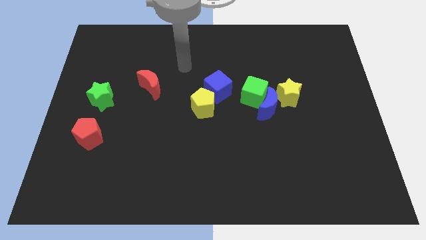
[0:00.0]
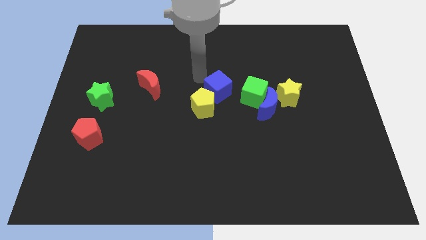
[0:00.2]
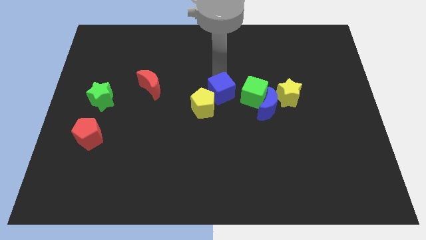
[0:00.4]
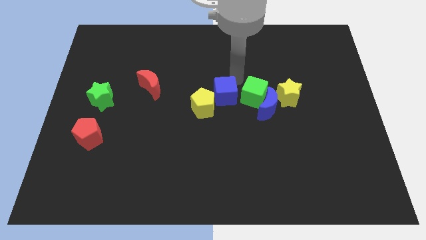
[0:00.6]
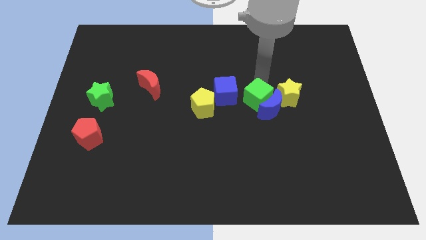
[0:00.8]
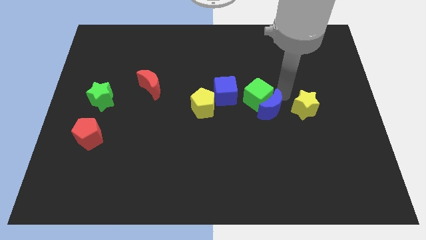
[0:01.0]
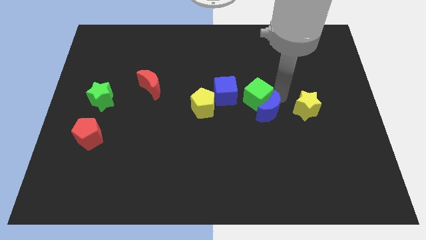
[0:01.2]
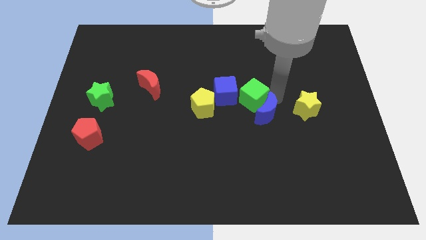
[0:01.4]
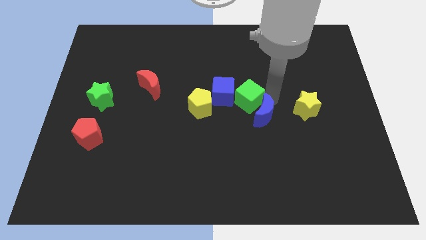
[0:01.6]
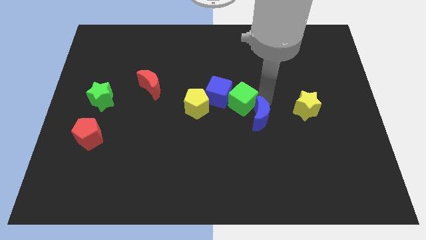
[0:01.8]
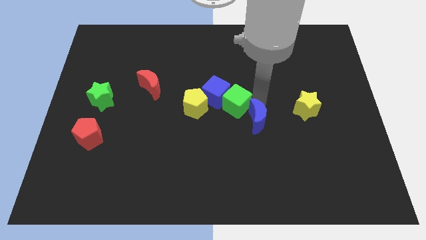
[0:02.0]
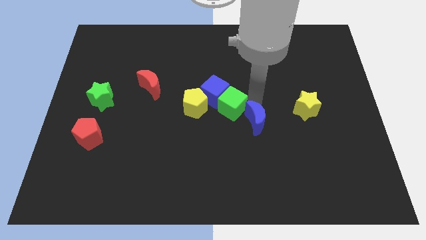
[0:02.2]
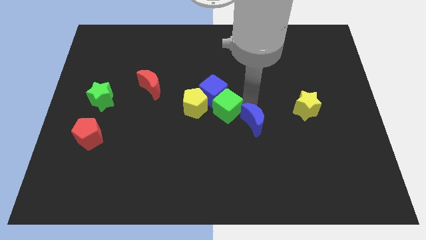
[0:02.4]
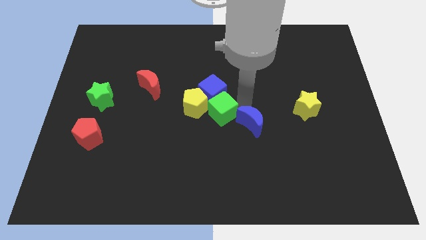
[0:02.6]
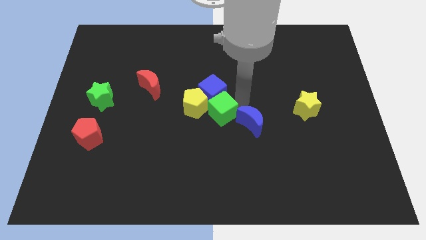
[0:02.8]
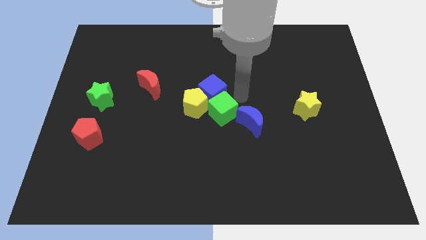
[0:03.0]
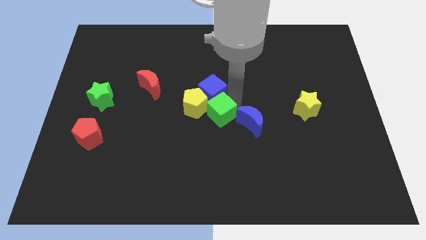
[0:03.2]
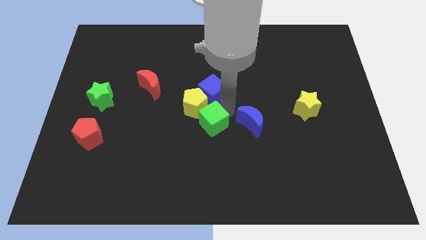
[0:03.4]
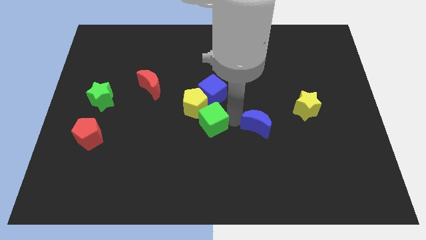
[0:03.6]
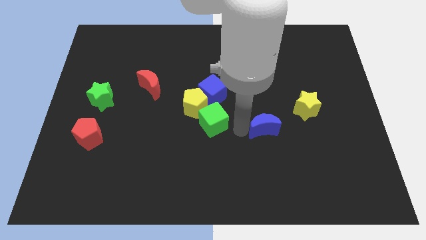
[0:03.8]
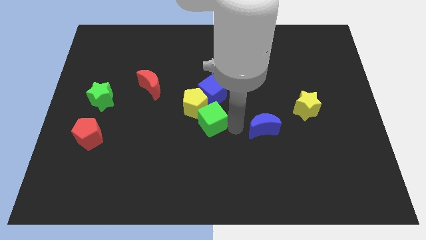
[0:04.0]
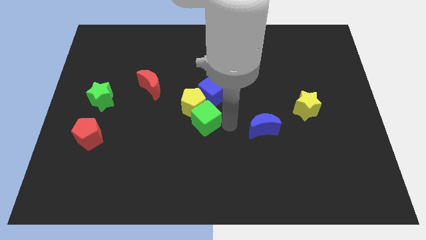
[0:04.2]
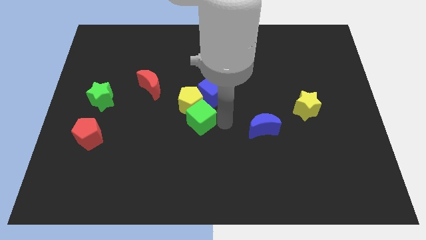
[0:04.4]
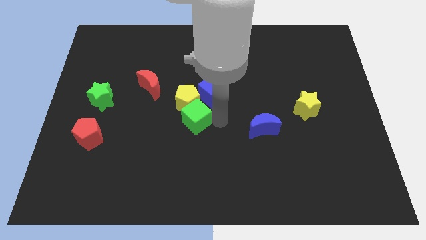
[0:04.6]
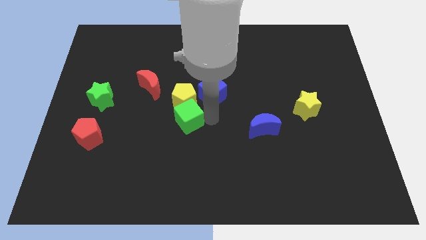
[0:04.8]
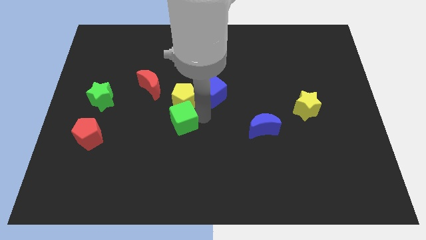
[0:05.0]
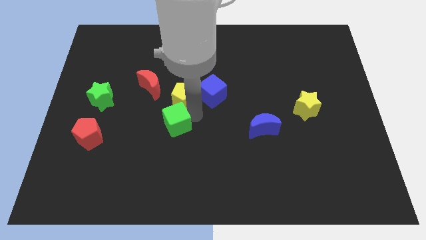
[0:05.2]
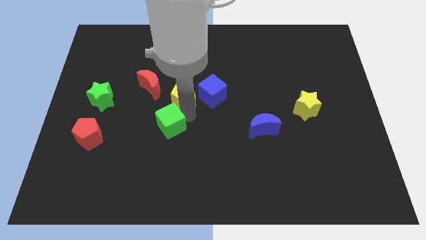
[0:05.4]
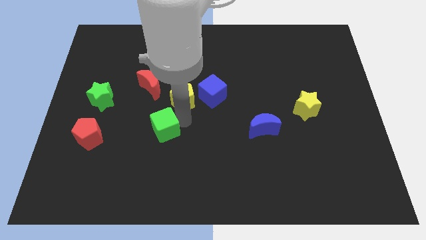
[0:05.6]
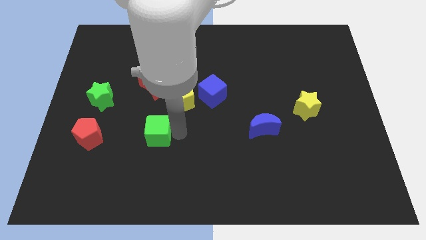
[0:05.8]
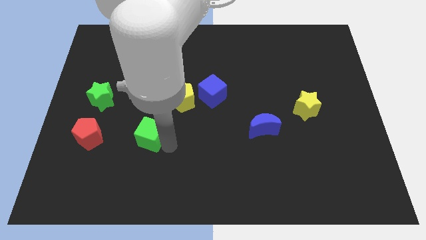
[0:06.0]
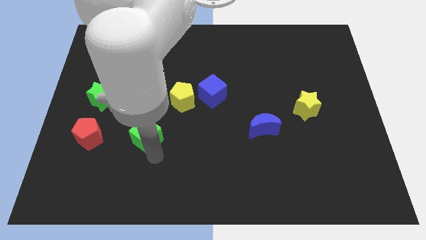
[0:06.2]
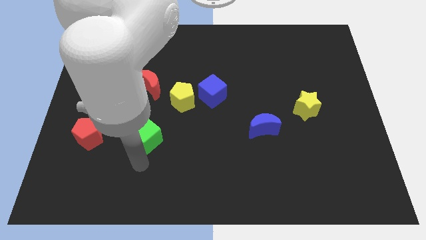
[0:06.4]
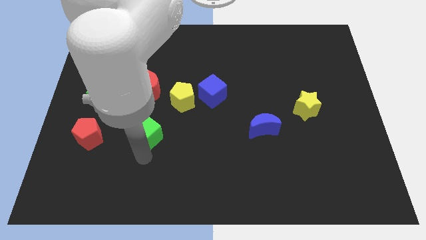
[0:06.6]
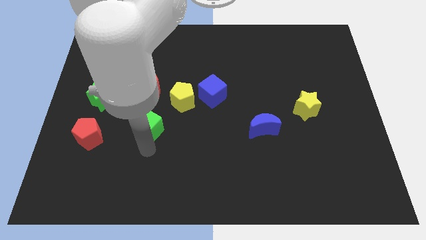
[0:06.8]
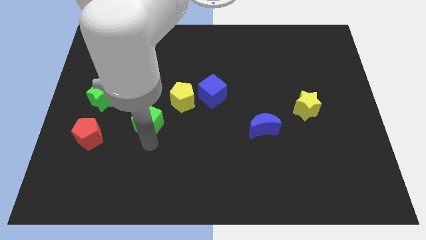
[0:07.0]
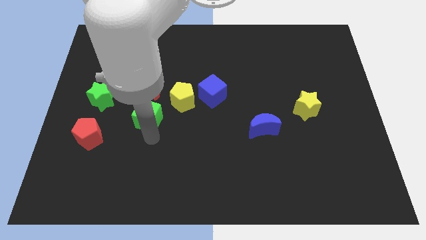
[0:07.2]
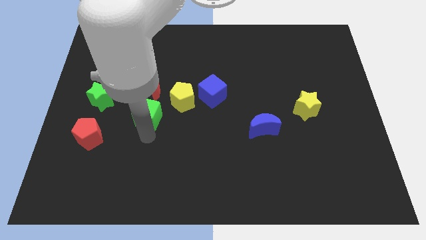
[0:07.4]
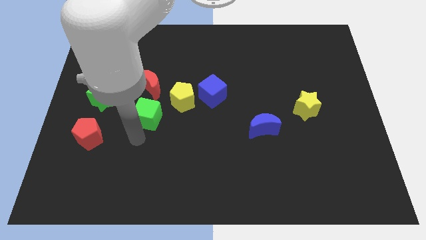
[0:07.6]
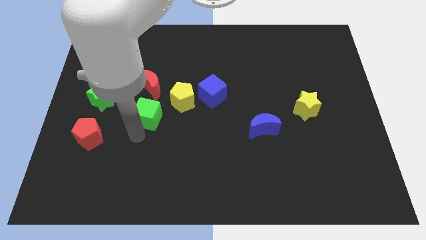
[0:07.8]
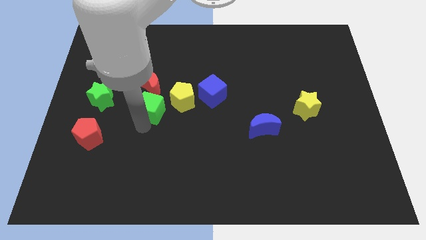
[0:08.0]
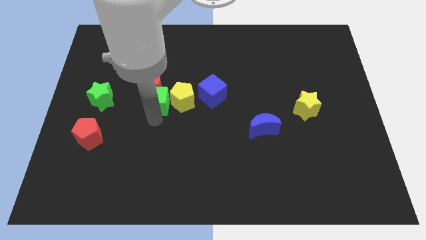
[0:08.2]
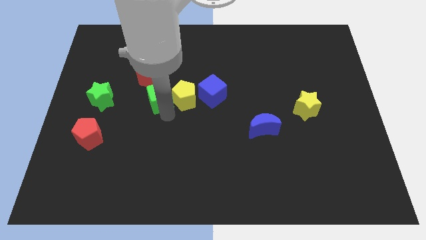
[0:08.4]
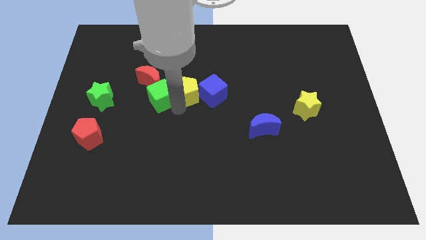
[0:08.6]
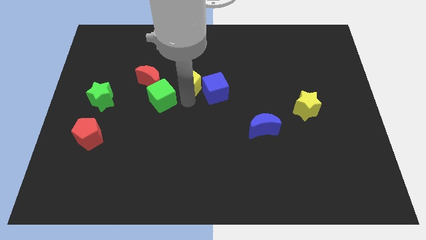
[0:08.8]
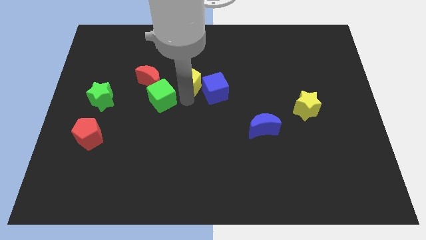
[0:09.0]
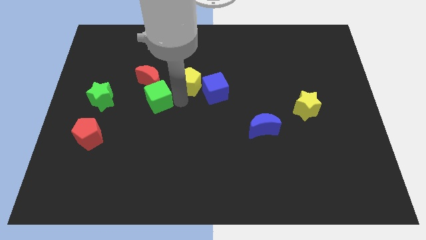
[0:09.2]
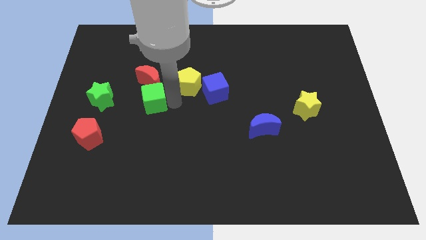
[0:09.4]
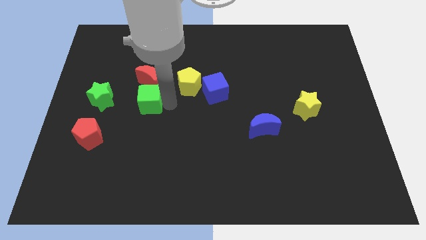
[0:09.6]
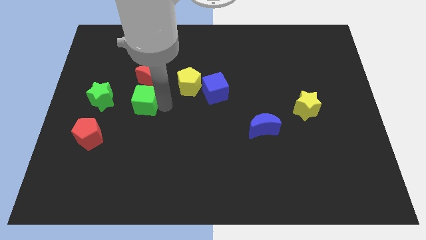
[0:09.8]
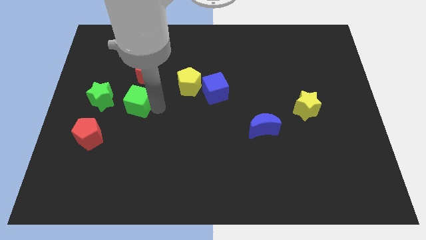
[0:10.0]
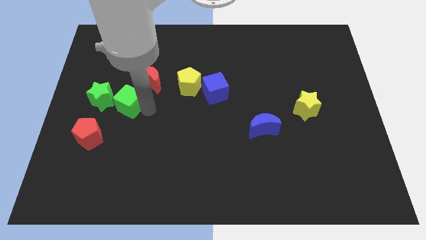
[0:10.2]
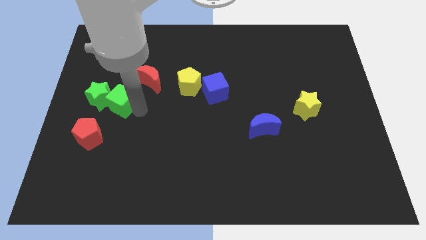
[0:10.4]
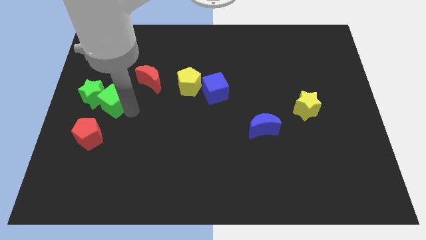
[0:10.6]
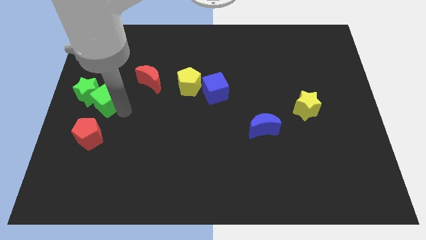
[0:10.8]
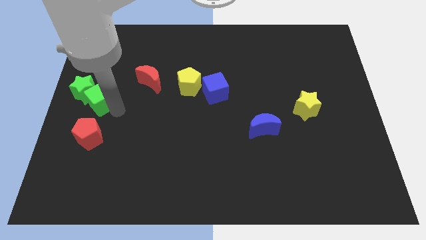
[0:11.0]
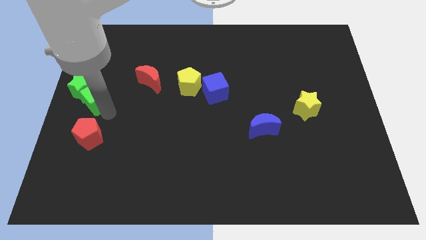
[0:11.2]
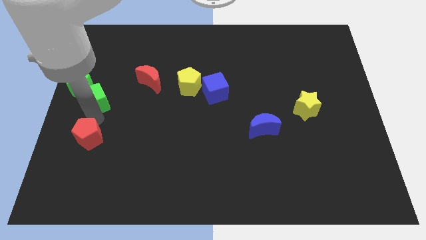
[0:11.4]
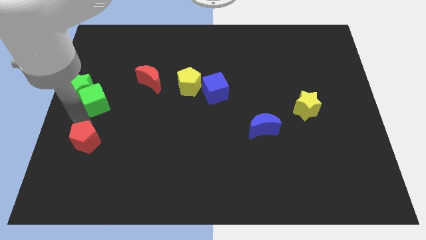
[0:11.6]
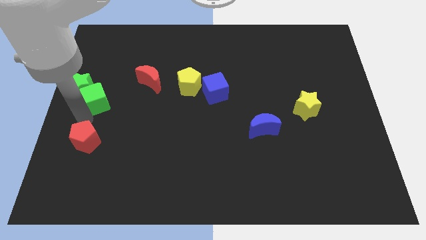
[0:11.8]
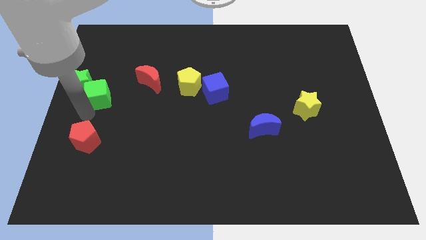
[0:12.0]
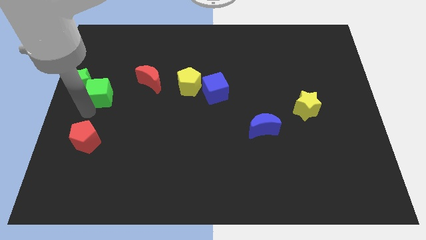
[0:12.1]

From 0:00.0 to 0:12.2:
put the green cube to the left of the red moon

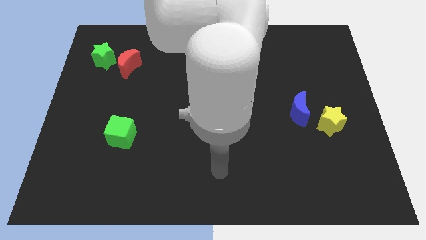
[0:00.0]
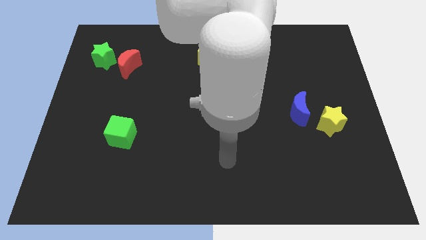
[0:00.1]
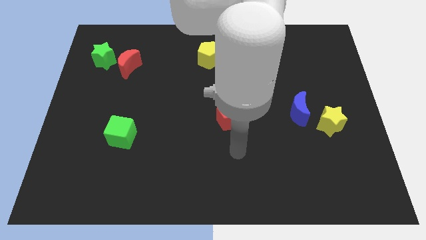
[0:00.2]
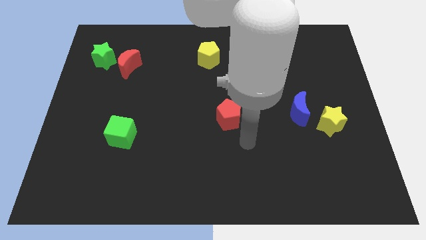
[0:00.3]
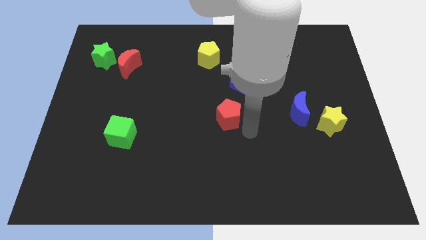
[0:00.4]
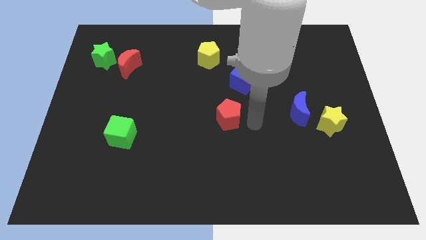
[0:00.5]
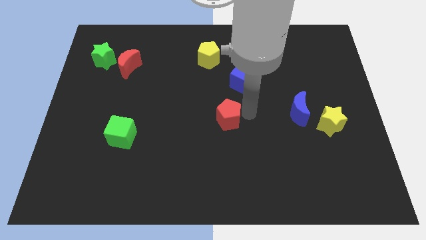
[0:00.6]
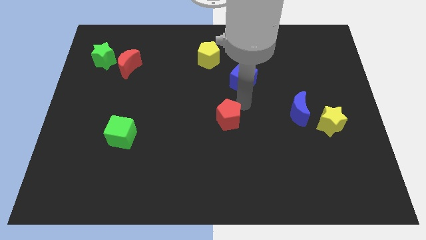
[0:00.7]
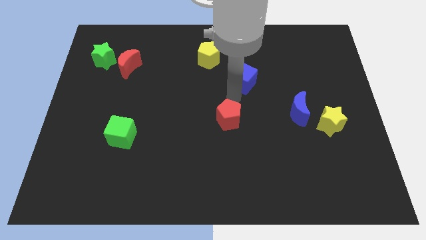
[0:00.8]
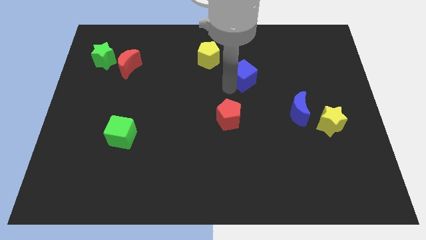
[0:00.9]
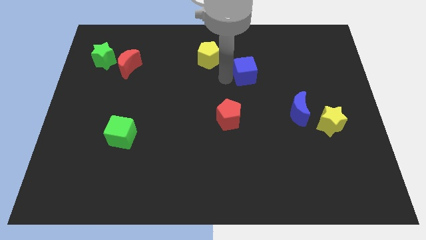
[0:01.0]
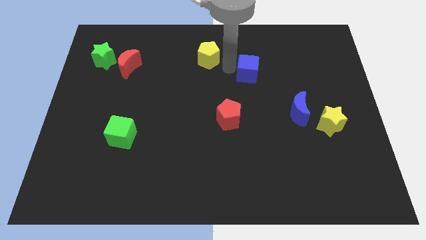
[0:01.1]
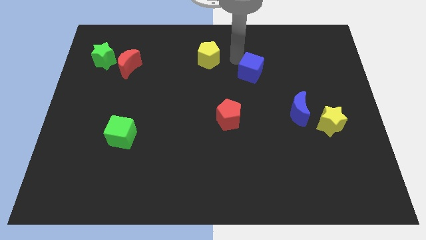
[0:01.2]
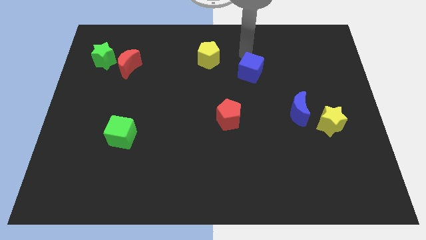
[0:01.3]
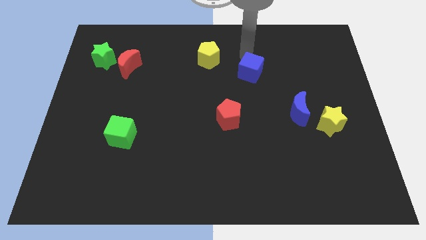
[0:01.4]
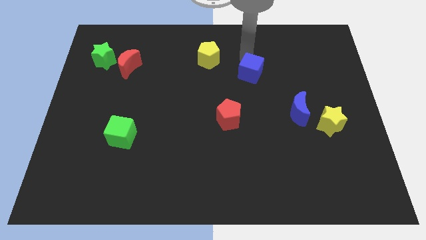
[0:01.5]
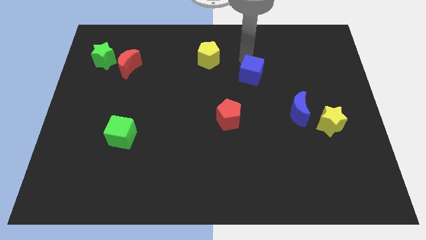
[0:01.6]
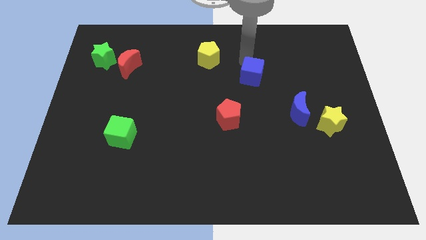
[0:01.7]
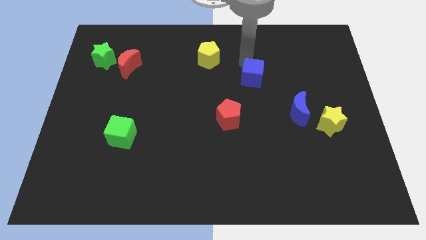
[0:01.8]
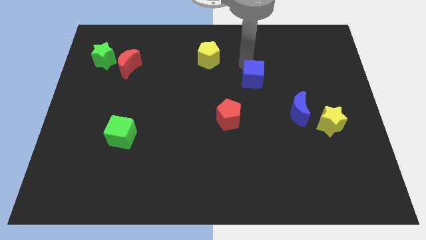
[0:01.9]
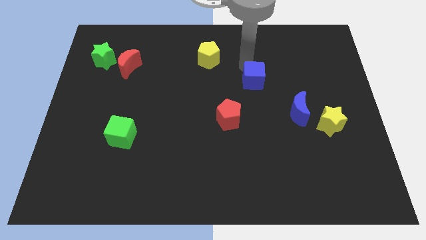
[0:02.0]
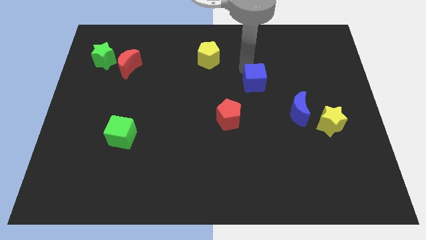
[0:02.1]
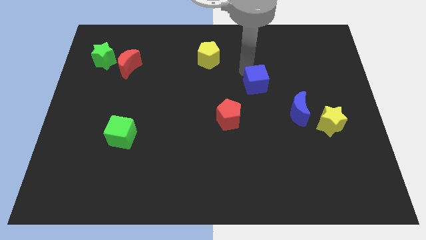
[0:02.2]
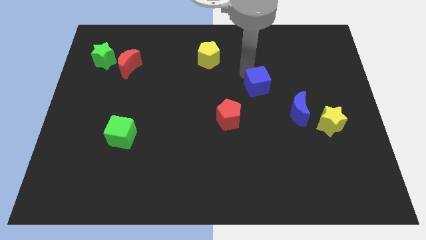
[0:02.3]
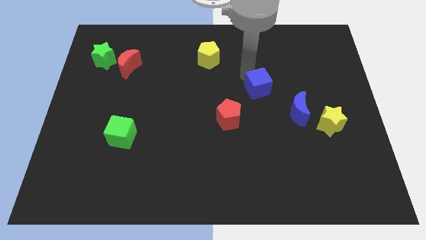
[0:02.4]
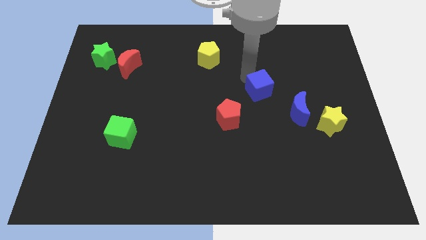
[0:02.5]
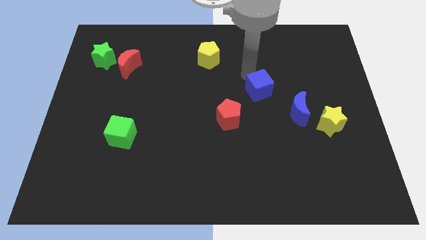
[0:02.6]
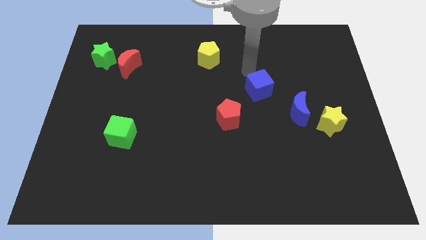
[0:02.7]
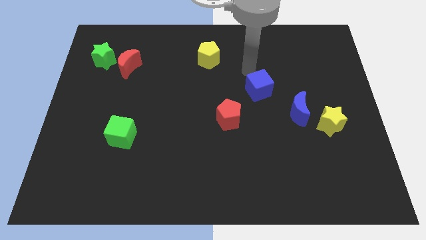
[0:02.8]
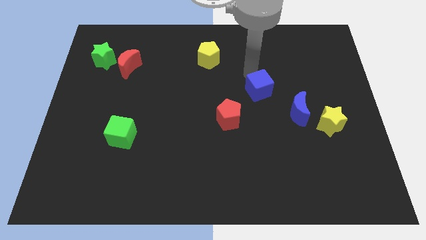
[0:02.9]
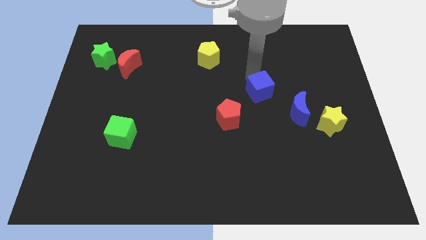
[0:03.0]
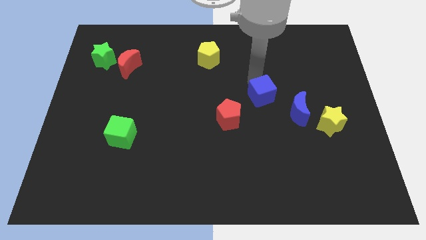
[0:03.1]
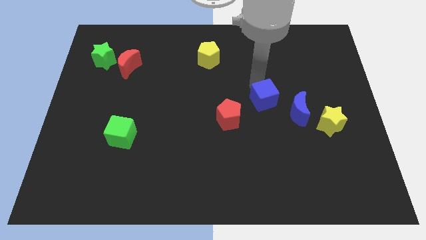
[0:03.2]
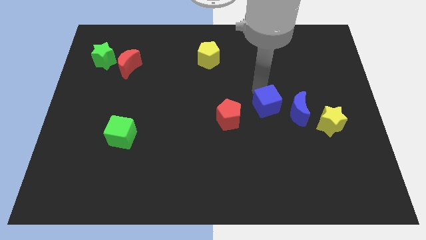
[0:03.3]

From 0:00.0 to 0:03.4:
push the blue cube right of the red pentagon
